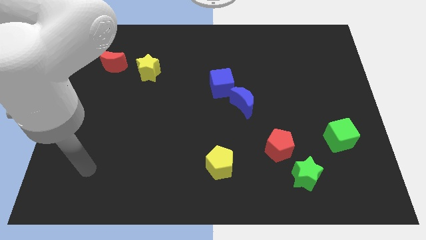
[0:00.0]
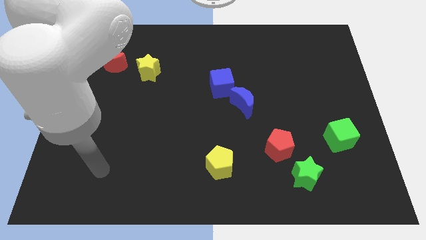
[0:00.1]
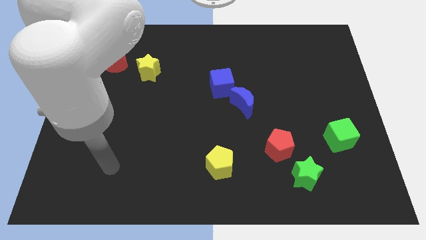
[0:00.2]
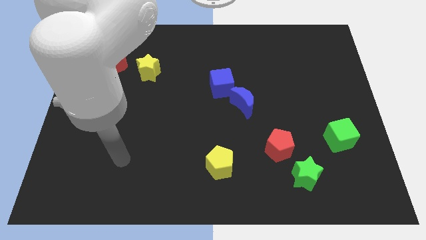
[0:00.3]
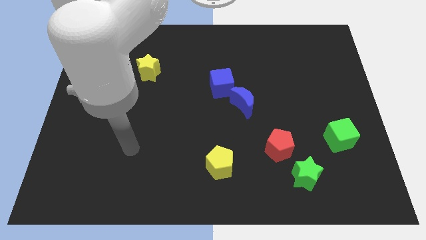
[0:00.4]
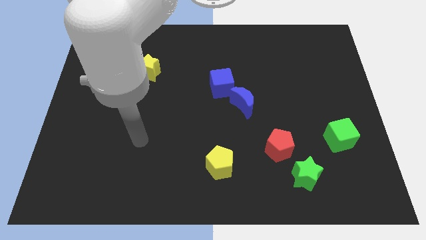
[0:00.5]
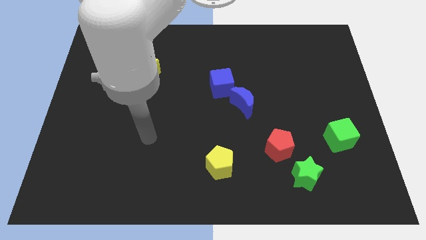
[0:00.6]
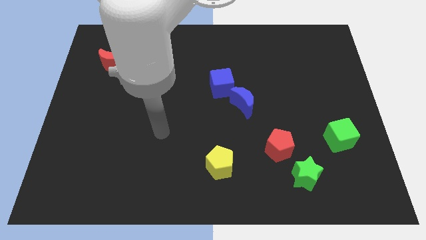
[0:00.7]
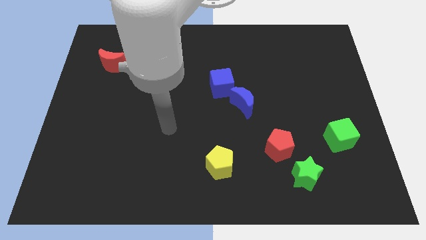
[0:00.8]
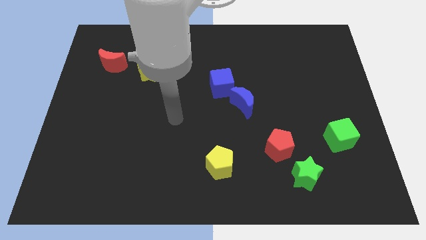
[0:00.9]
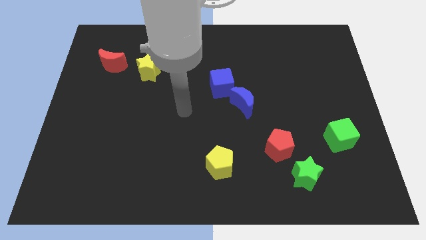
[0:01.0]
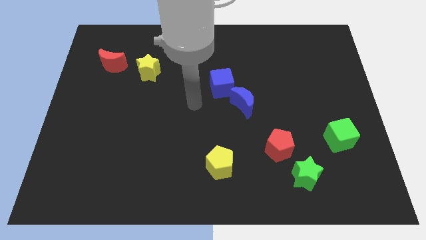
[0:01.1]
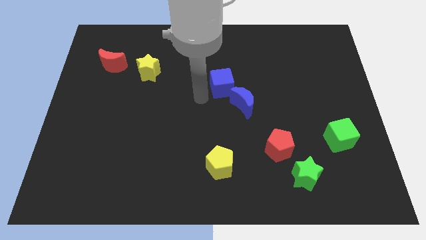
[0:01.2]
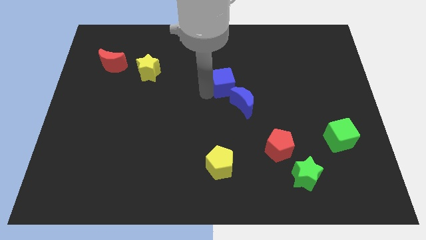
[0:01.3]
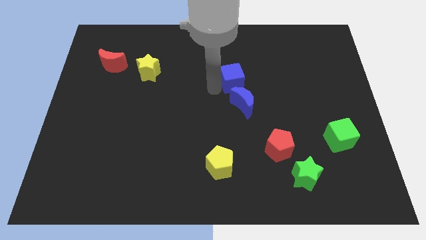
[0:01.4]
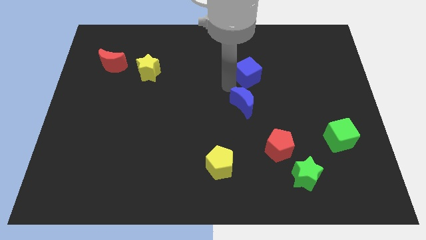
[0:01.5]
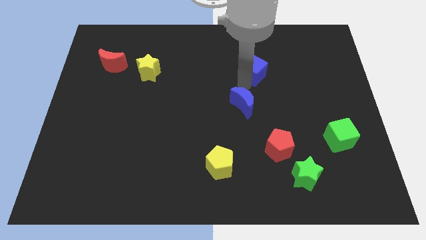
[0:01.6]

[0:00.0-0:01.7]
separate the blue moon from the blue cube

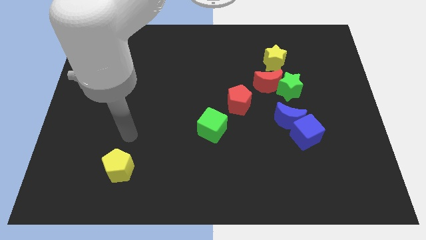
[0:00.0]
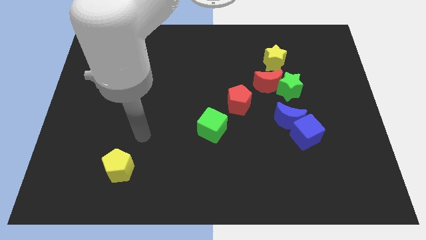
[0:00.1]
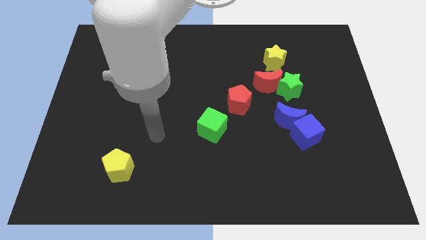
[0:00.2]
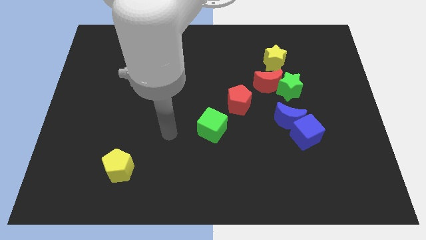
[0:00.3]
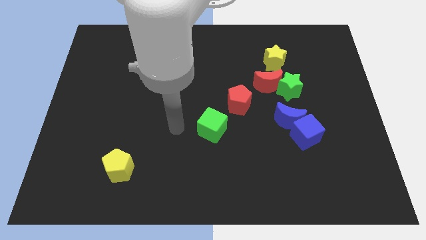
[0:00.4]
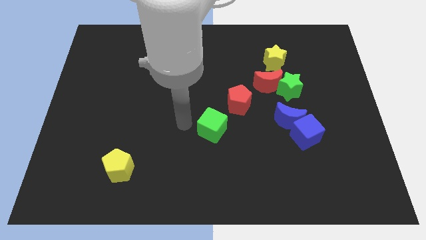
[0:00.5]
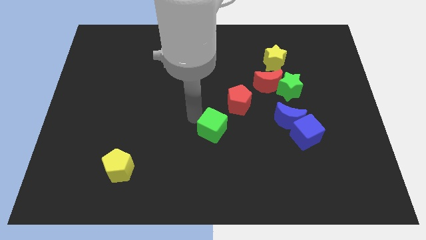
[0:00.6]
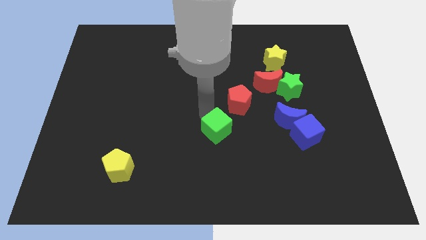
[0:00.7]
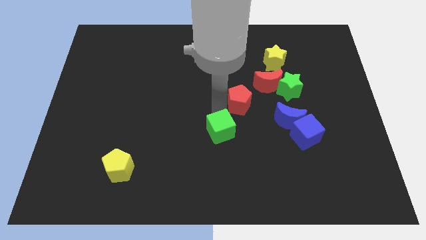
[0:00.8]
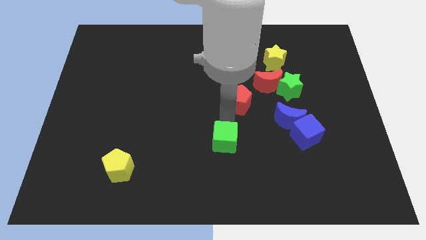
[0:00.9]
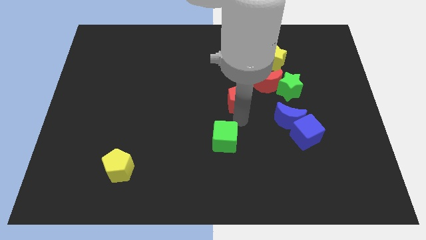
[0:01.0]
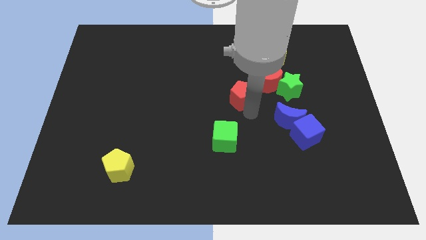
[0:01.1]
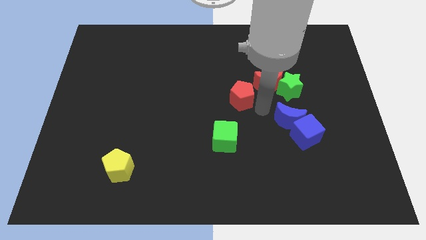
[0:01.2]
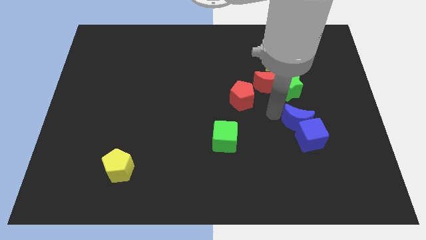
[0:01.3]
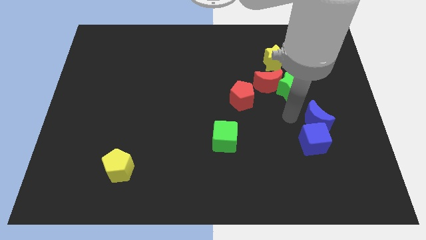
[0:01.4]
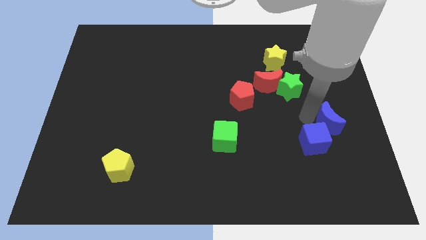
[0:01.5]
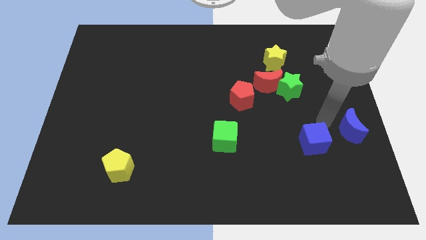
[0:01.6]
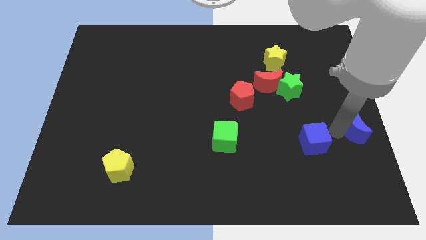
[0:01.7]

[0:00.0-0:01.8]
move the blue cube away from the blue moon

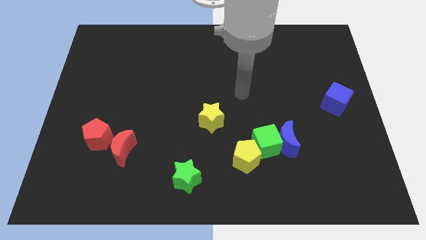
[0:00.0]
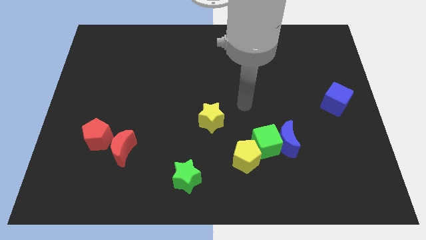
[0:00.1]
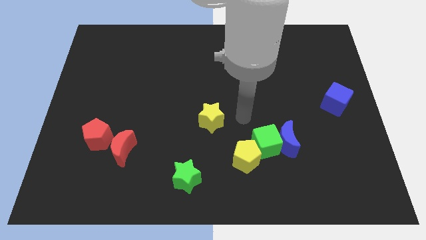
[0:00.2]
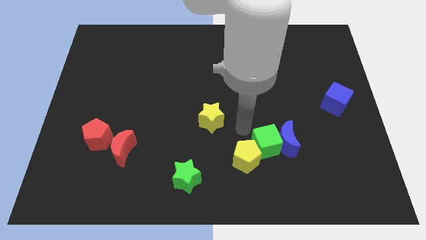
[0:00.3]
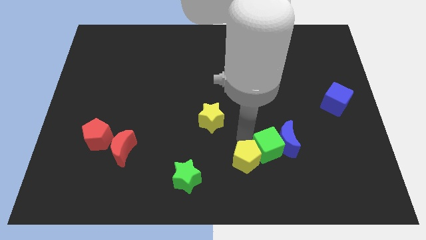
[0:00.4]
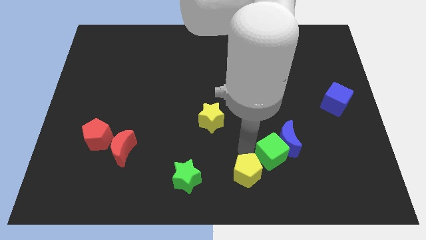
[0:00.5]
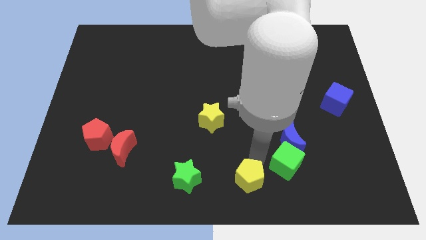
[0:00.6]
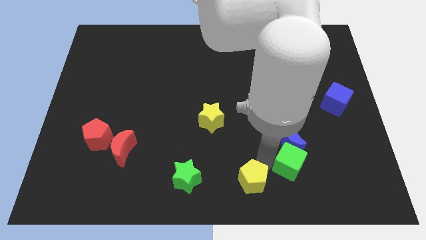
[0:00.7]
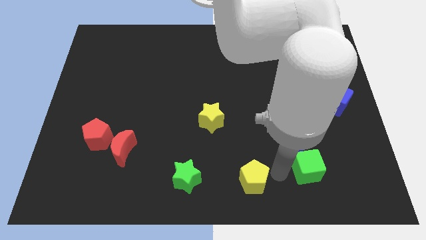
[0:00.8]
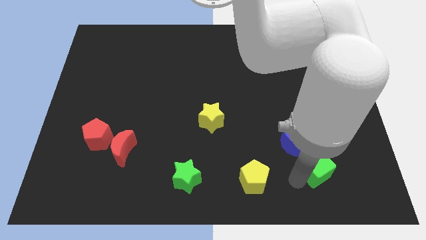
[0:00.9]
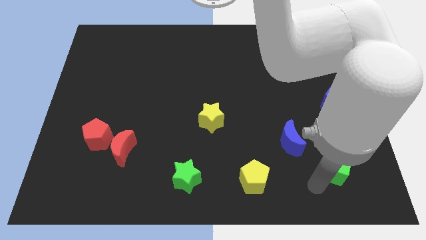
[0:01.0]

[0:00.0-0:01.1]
separate the green cube from the blue moon and yellow pentagon

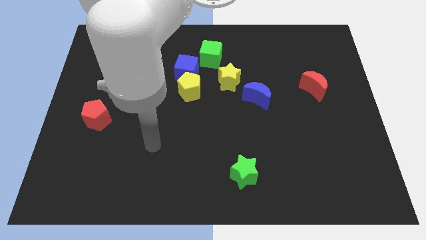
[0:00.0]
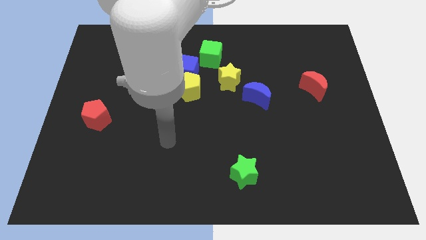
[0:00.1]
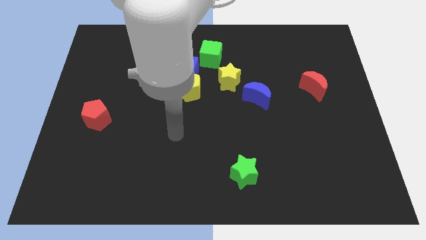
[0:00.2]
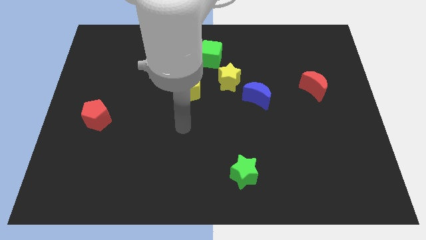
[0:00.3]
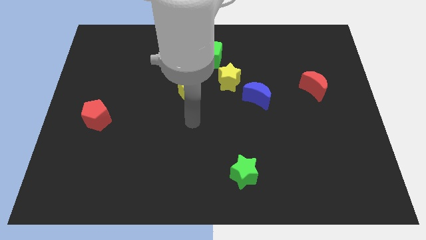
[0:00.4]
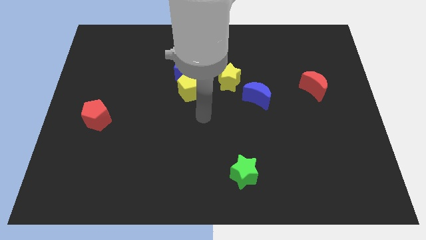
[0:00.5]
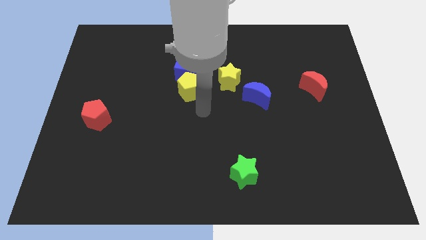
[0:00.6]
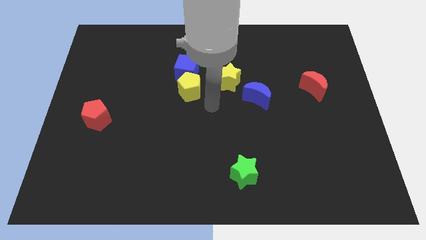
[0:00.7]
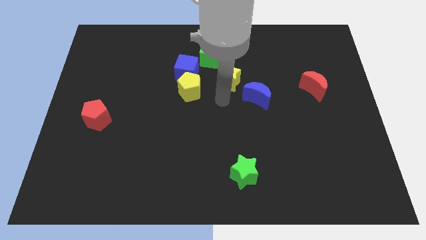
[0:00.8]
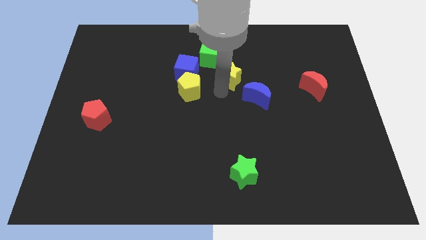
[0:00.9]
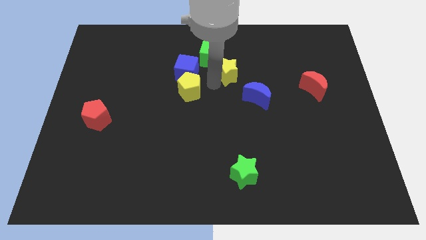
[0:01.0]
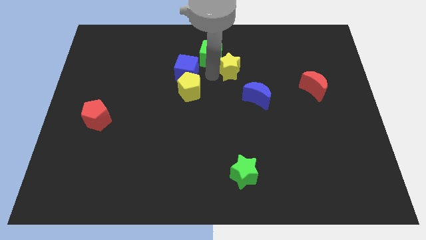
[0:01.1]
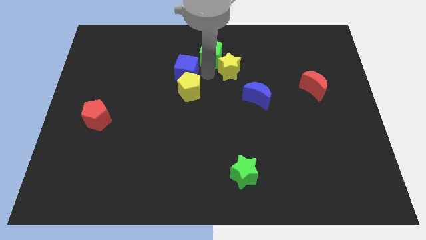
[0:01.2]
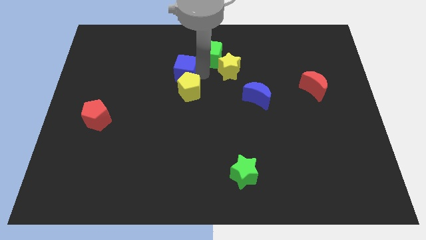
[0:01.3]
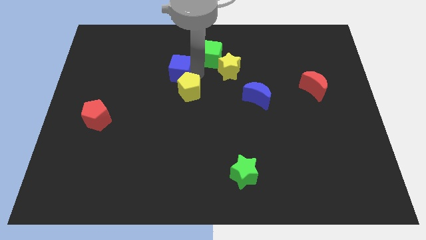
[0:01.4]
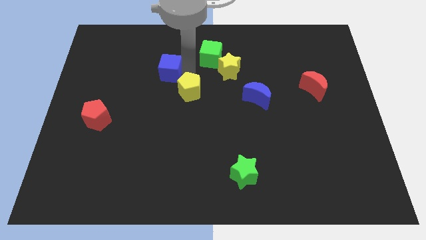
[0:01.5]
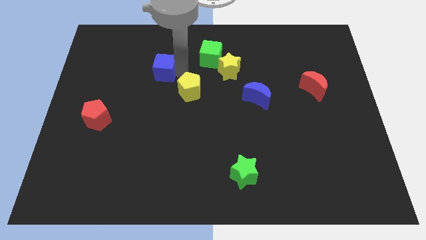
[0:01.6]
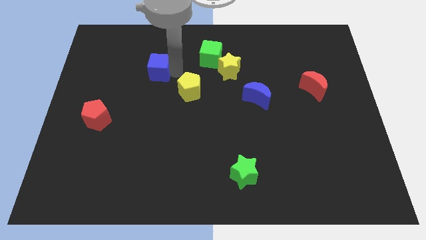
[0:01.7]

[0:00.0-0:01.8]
move the blue cube away from the yellow pentagon and green cube

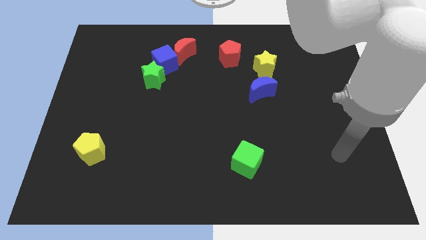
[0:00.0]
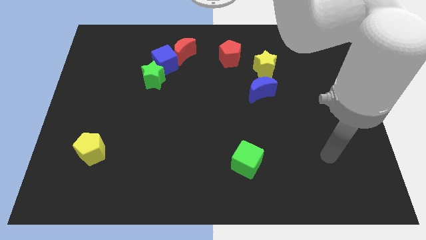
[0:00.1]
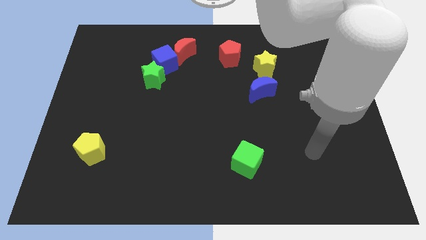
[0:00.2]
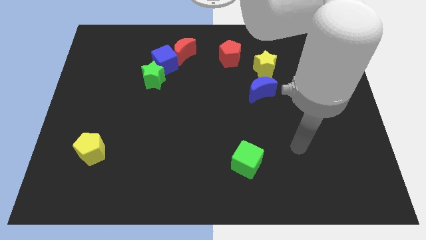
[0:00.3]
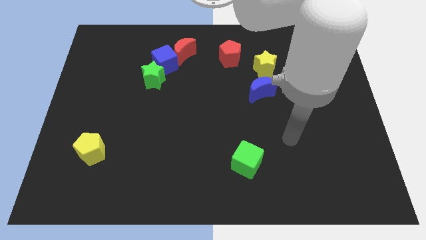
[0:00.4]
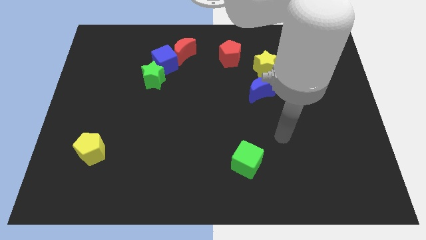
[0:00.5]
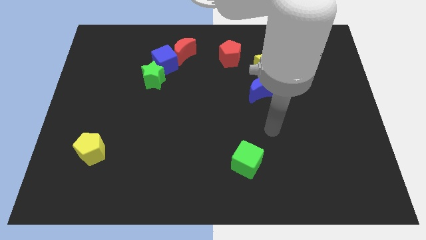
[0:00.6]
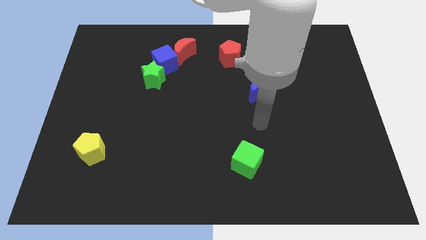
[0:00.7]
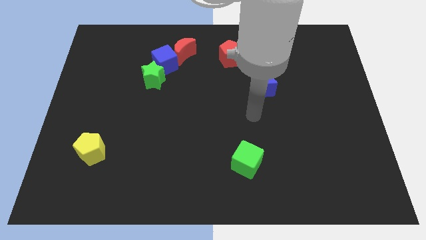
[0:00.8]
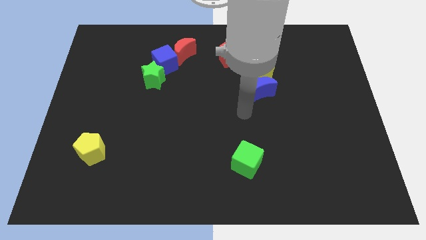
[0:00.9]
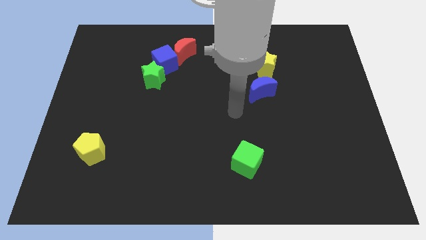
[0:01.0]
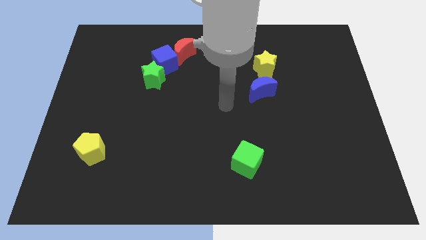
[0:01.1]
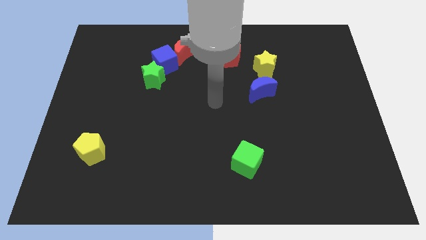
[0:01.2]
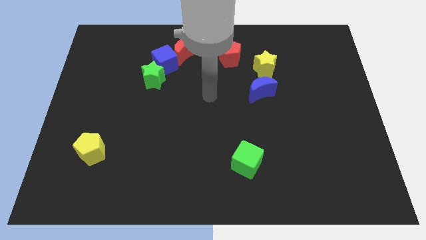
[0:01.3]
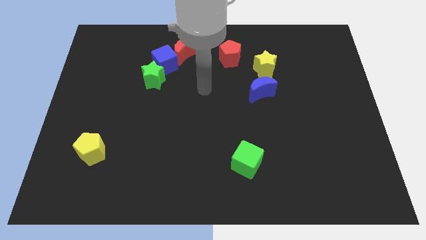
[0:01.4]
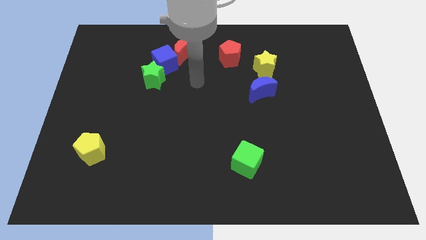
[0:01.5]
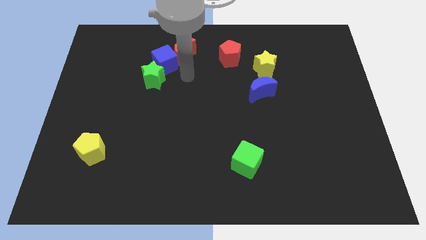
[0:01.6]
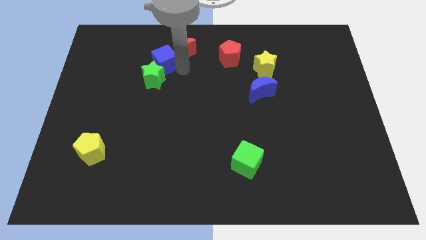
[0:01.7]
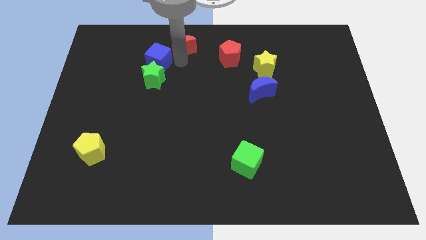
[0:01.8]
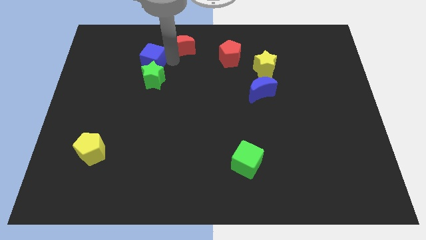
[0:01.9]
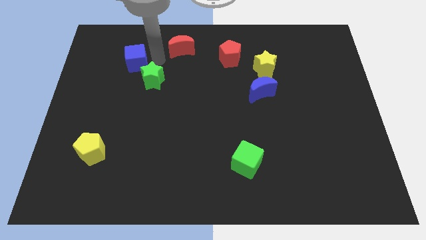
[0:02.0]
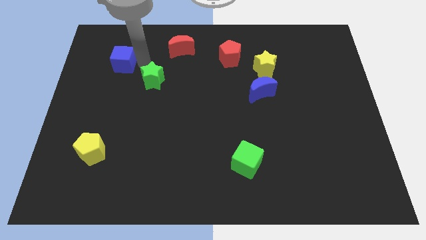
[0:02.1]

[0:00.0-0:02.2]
pull the green star apart from the blue cube

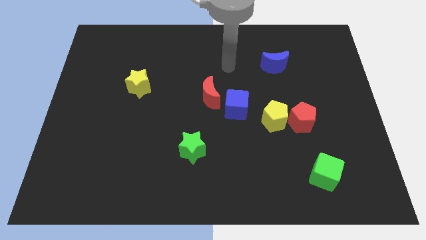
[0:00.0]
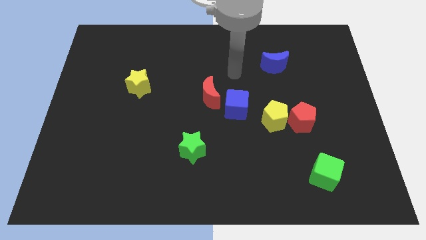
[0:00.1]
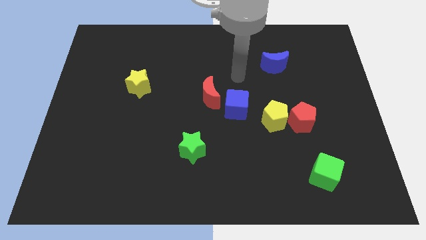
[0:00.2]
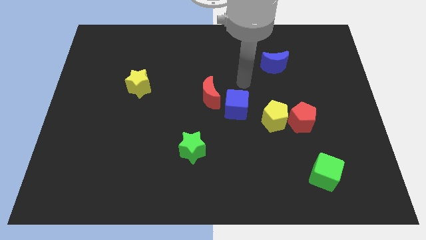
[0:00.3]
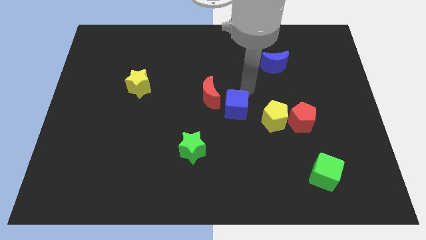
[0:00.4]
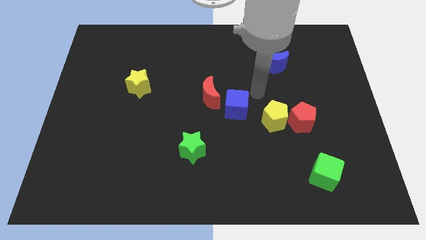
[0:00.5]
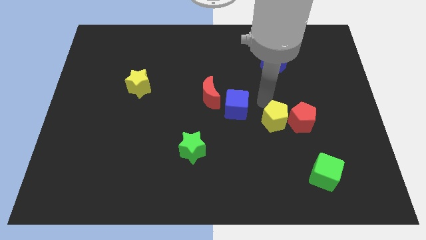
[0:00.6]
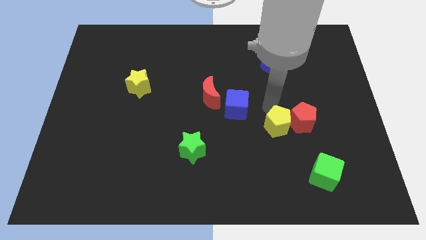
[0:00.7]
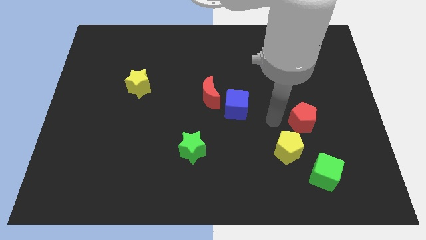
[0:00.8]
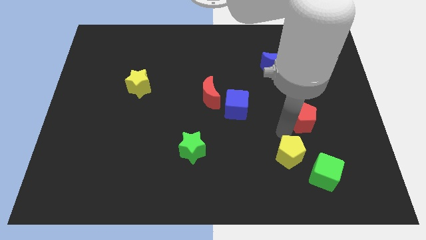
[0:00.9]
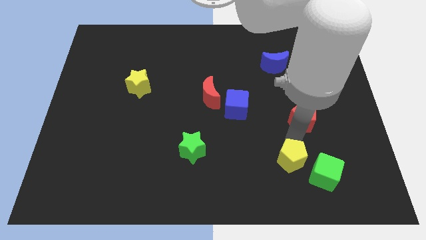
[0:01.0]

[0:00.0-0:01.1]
move the red pentagon away from the yellow pentagon
